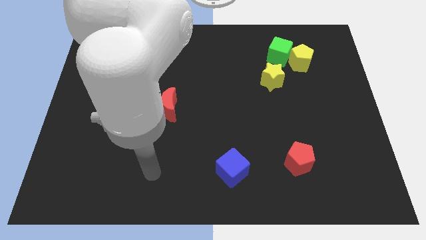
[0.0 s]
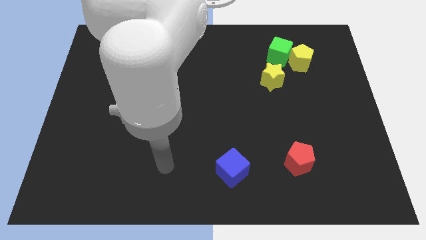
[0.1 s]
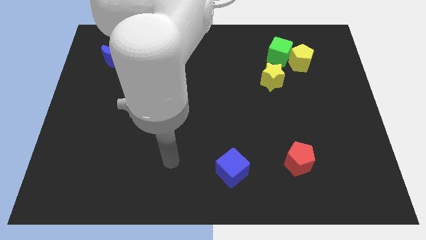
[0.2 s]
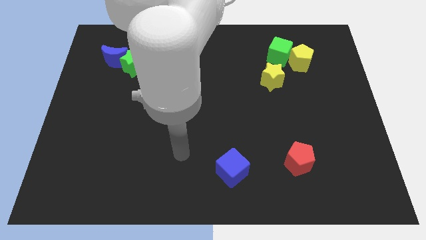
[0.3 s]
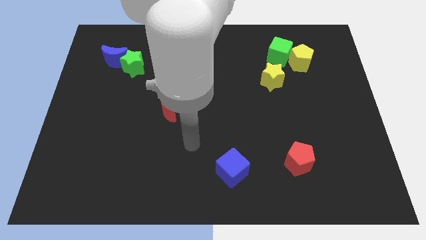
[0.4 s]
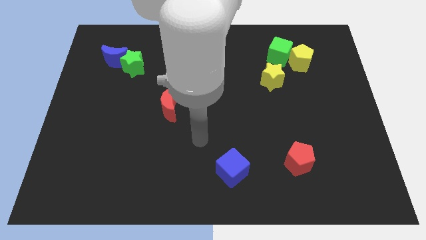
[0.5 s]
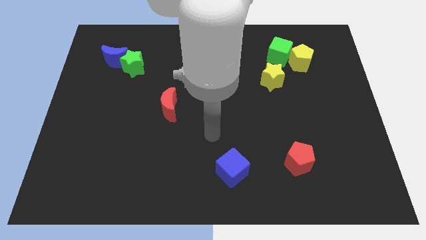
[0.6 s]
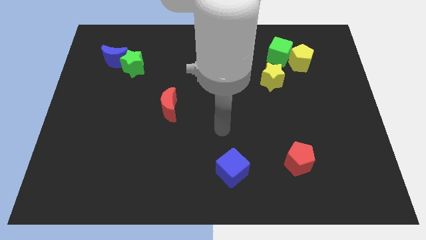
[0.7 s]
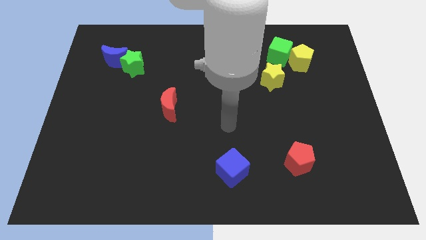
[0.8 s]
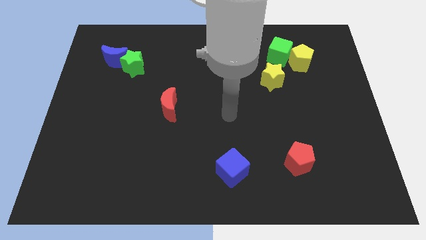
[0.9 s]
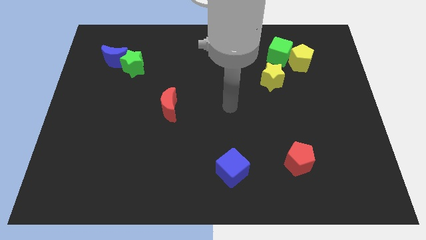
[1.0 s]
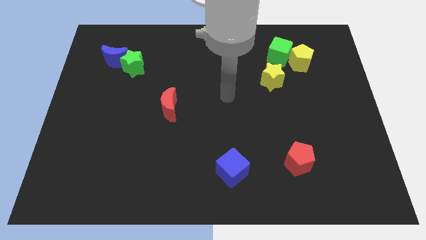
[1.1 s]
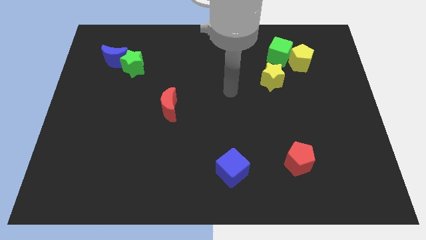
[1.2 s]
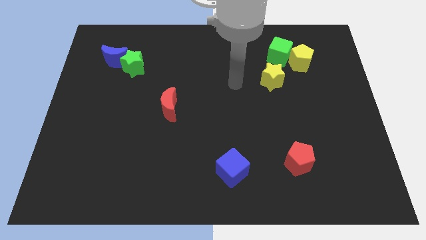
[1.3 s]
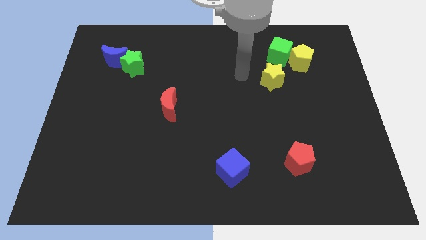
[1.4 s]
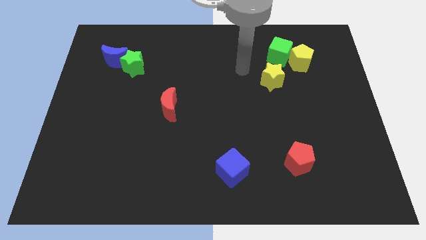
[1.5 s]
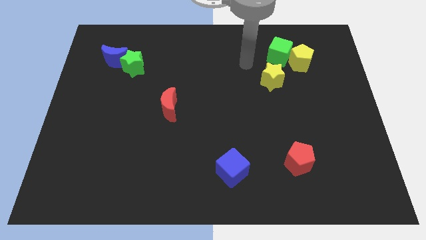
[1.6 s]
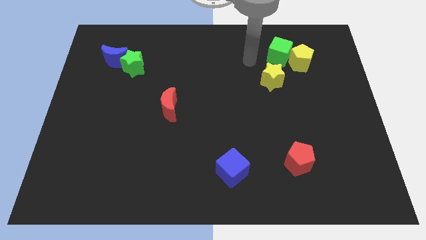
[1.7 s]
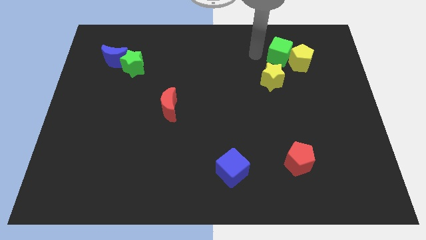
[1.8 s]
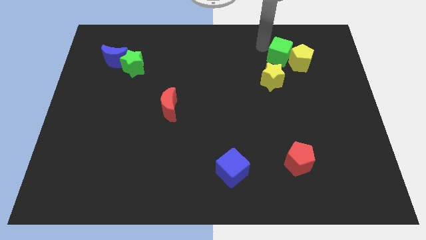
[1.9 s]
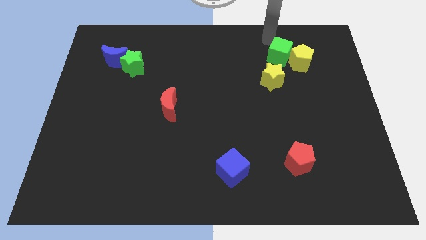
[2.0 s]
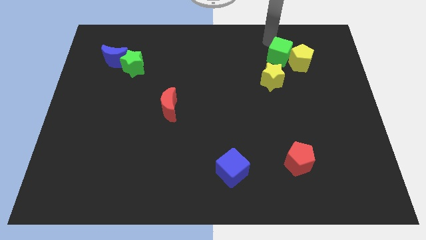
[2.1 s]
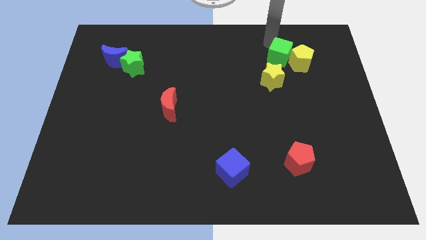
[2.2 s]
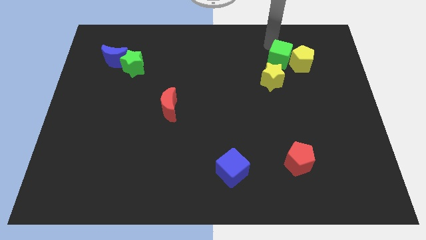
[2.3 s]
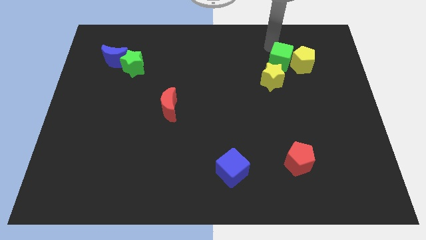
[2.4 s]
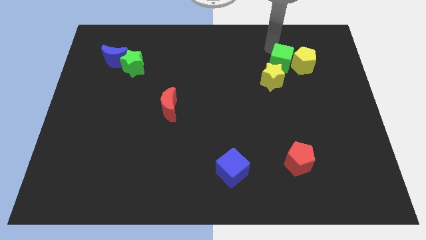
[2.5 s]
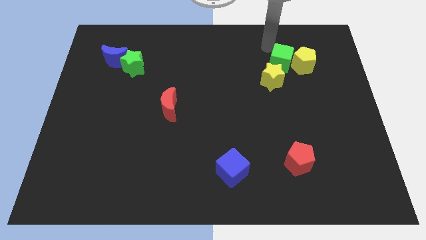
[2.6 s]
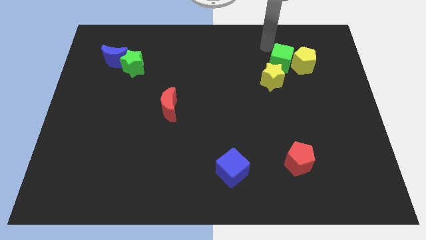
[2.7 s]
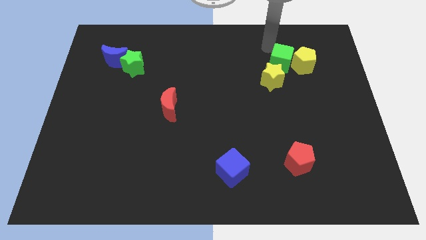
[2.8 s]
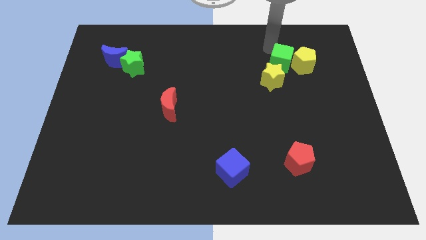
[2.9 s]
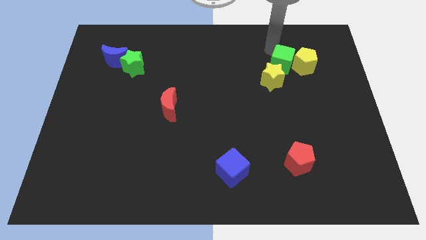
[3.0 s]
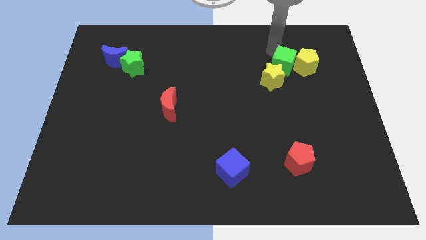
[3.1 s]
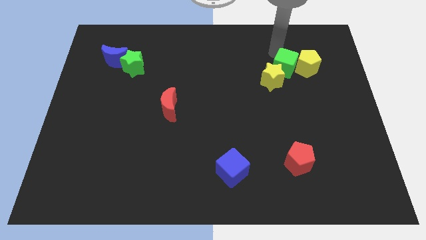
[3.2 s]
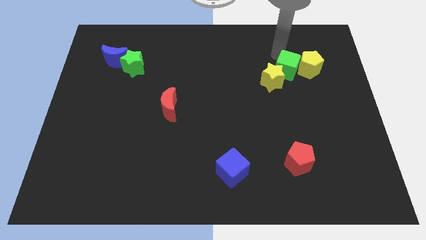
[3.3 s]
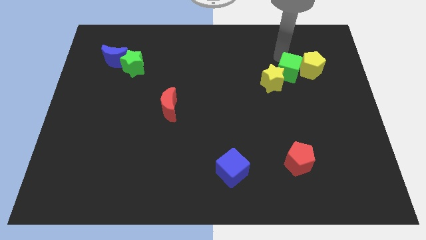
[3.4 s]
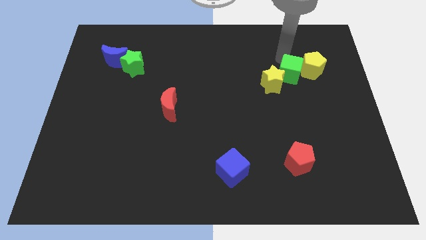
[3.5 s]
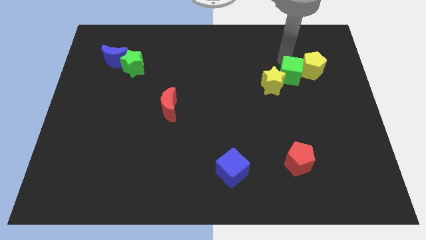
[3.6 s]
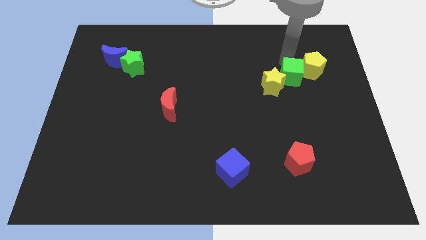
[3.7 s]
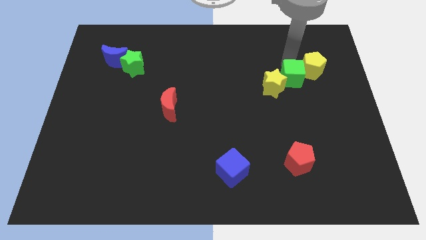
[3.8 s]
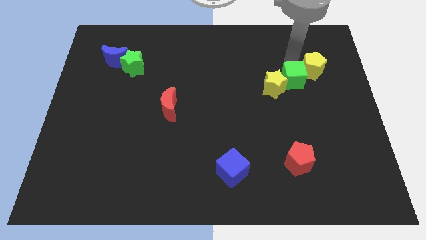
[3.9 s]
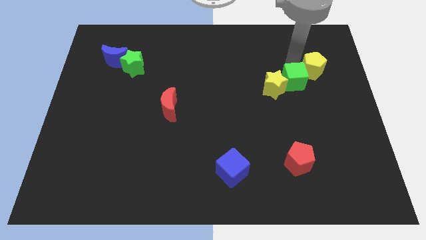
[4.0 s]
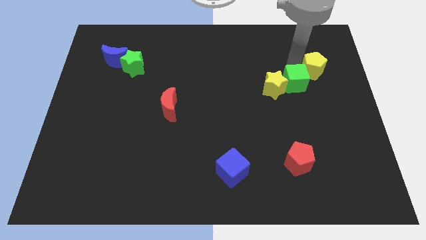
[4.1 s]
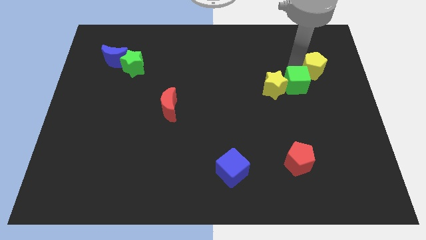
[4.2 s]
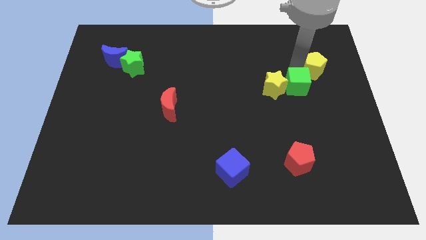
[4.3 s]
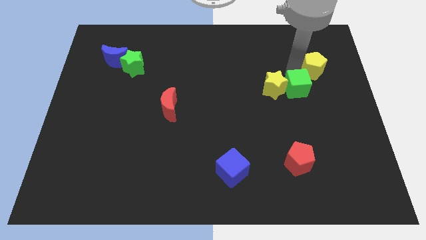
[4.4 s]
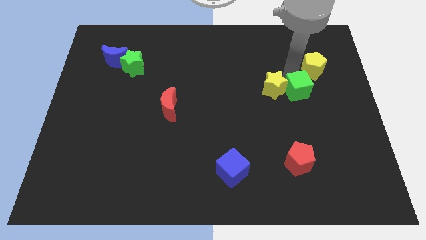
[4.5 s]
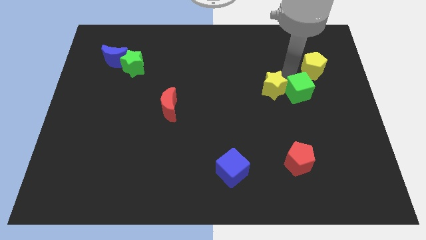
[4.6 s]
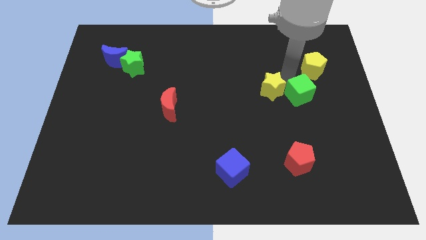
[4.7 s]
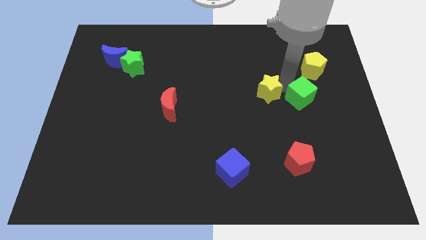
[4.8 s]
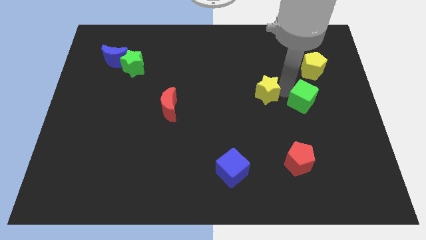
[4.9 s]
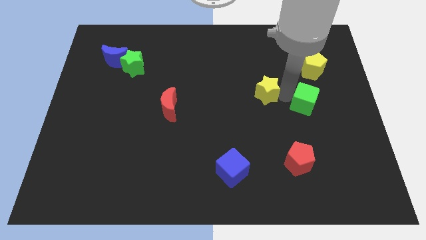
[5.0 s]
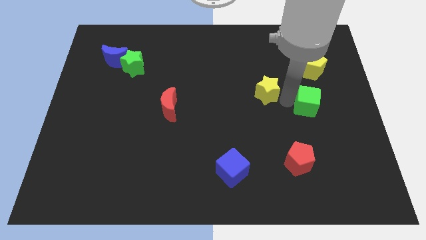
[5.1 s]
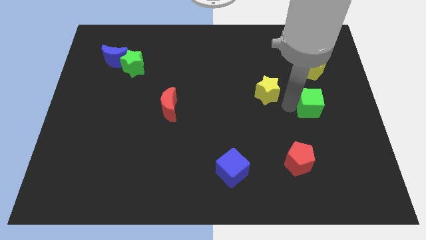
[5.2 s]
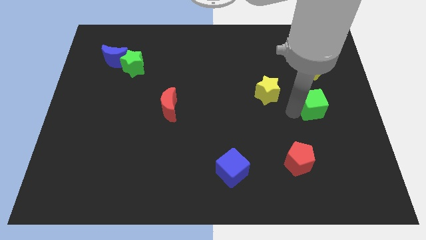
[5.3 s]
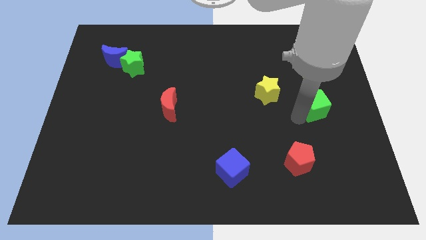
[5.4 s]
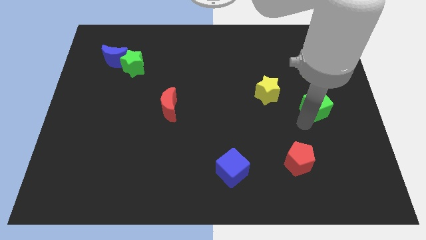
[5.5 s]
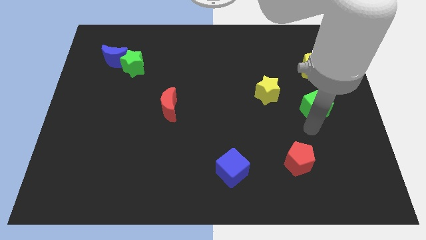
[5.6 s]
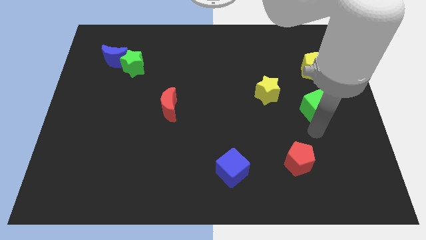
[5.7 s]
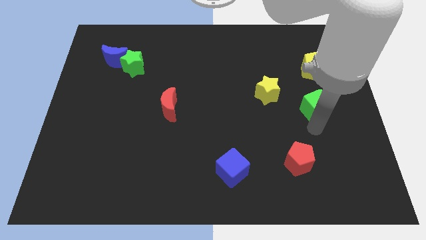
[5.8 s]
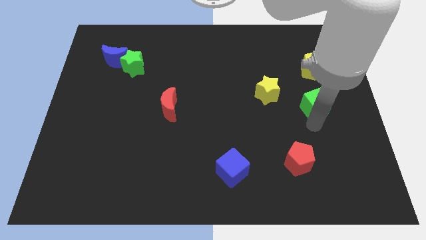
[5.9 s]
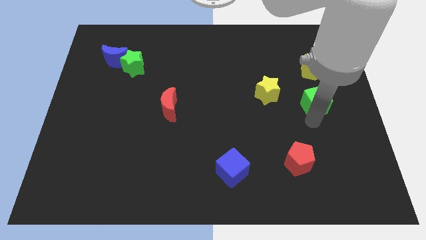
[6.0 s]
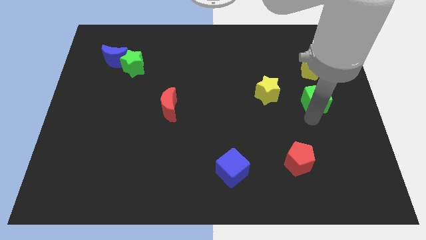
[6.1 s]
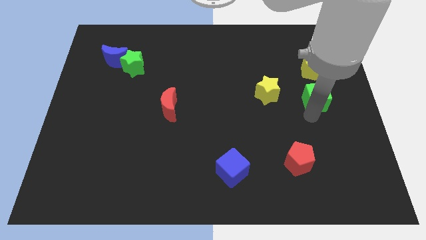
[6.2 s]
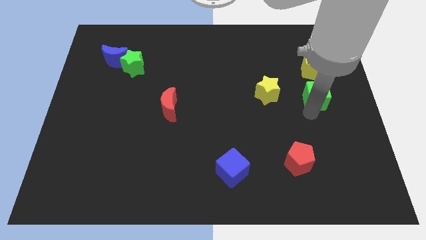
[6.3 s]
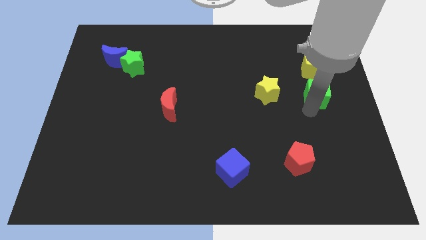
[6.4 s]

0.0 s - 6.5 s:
push the green cube to the right side of the board

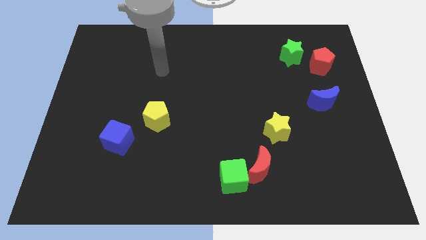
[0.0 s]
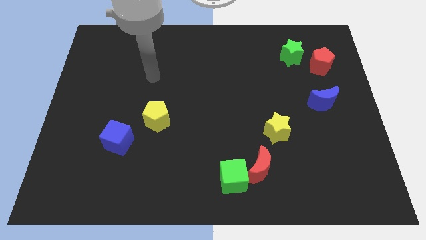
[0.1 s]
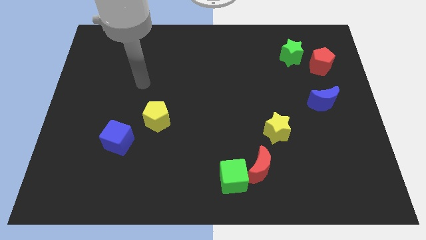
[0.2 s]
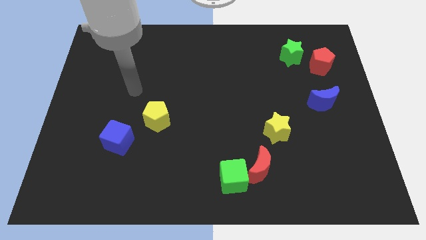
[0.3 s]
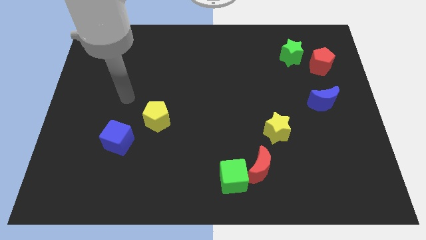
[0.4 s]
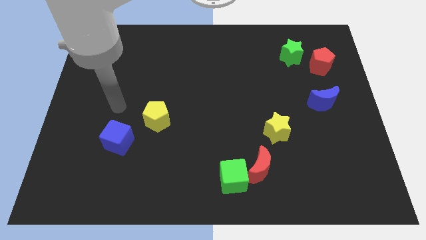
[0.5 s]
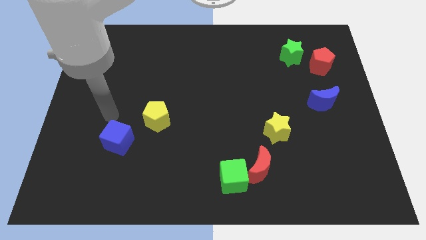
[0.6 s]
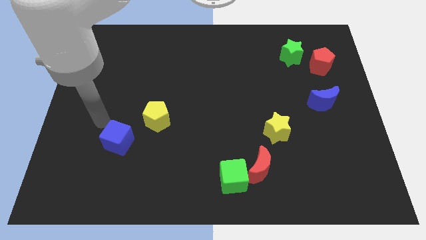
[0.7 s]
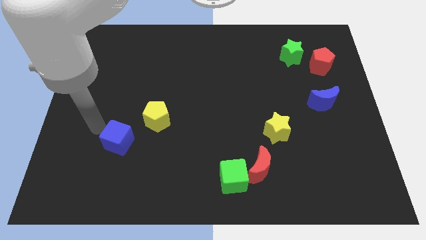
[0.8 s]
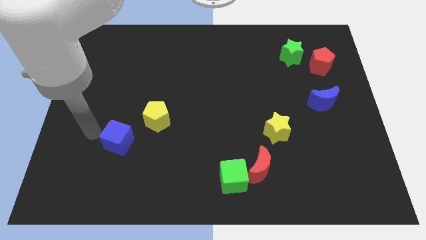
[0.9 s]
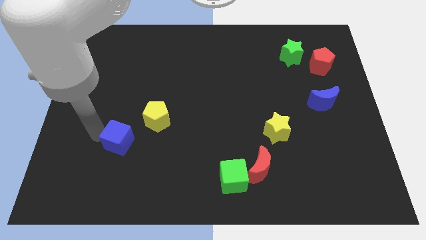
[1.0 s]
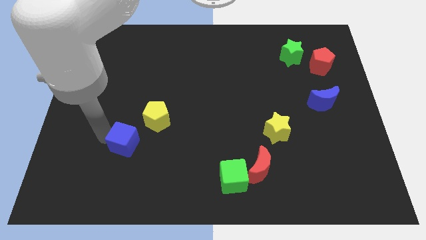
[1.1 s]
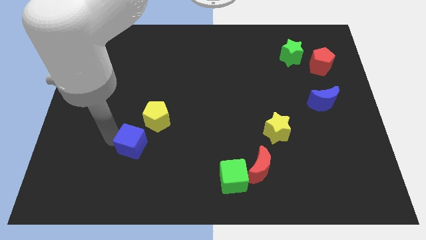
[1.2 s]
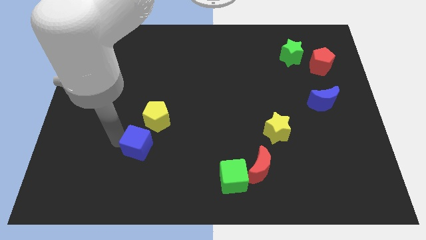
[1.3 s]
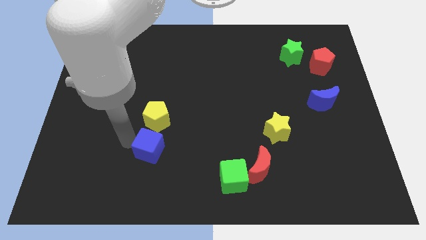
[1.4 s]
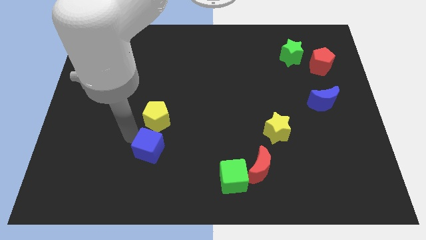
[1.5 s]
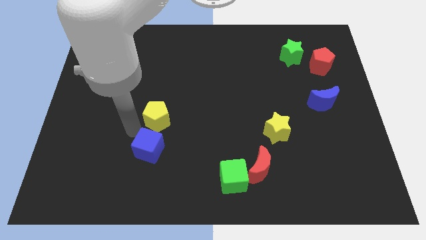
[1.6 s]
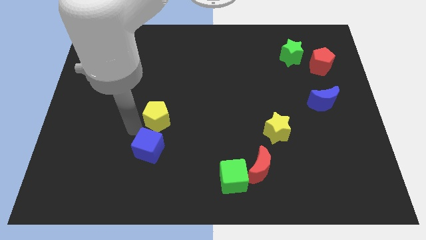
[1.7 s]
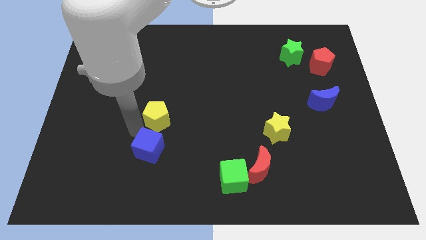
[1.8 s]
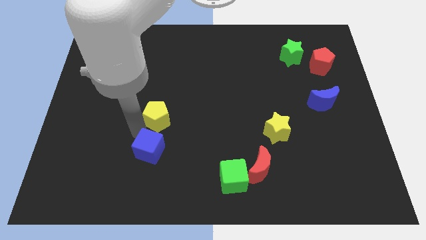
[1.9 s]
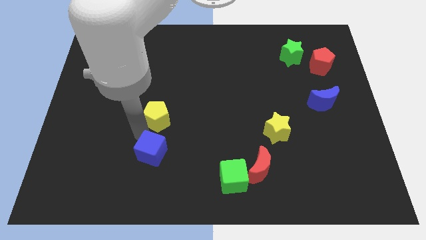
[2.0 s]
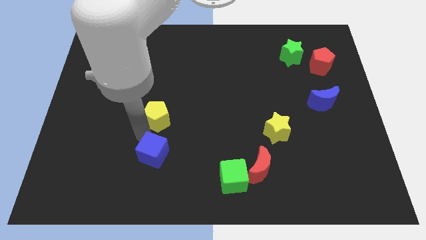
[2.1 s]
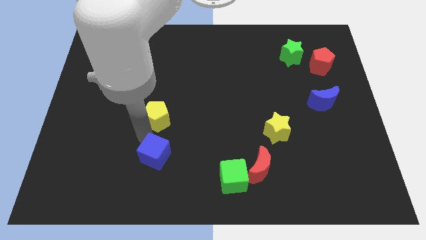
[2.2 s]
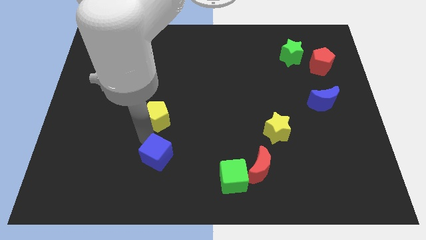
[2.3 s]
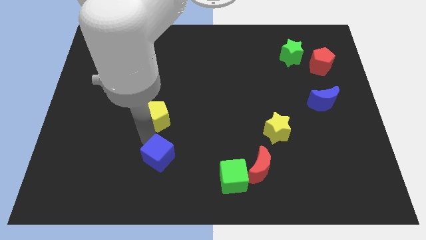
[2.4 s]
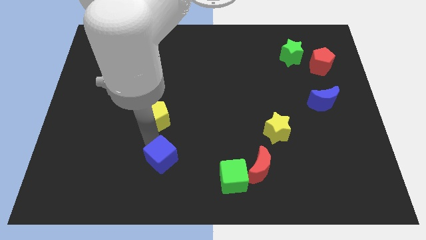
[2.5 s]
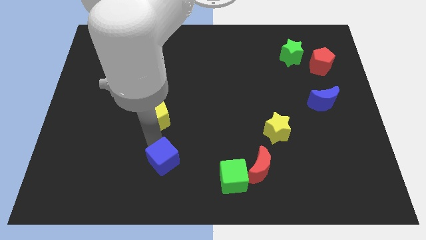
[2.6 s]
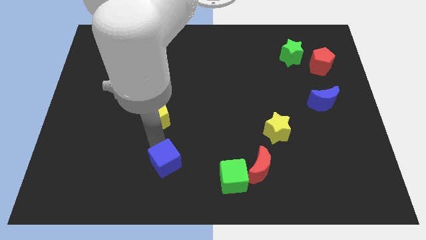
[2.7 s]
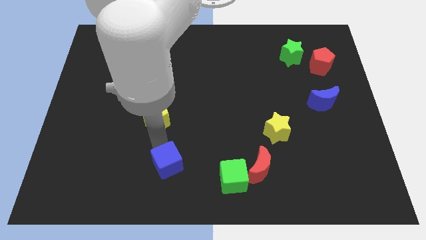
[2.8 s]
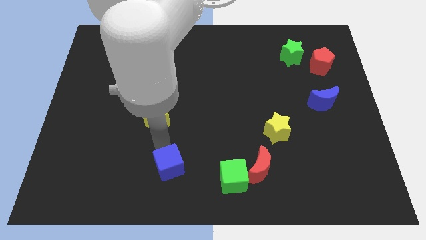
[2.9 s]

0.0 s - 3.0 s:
push the blue cube to the bottom
